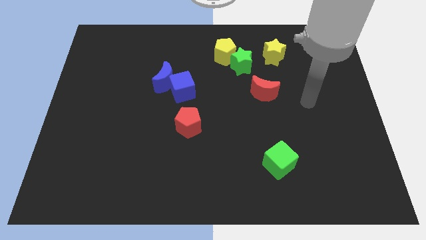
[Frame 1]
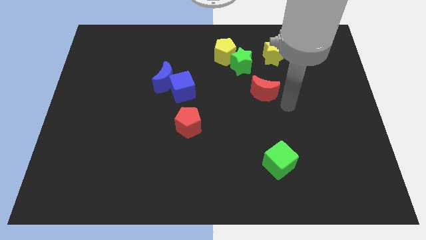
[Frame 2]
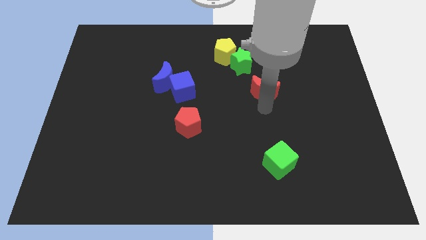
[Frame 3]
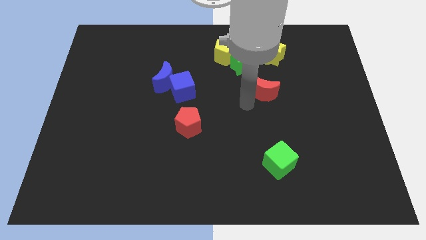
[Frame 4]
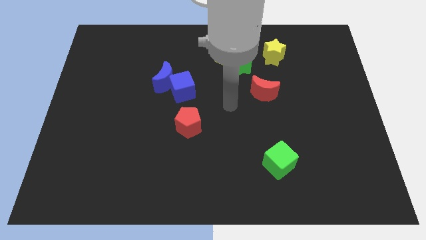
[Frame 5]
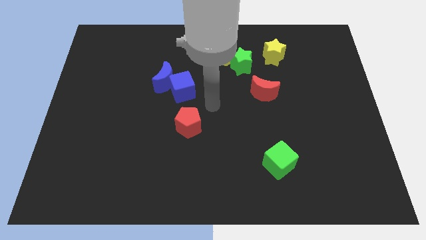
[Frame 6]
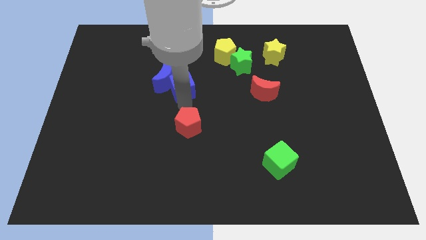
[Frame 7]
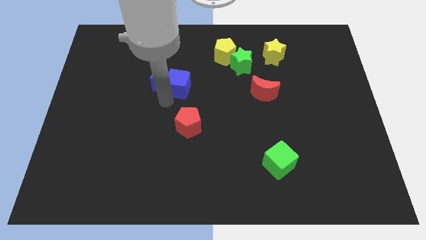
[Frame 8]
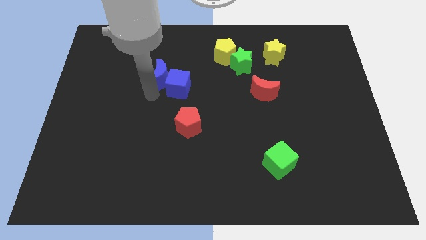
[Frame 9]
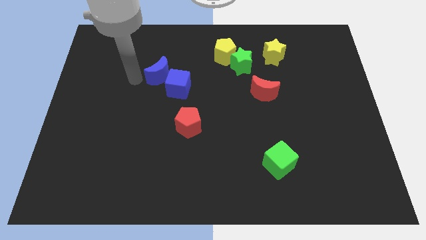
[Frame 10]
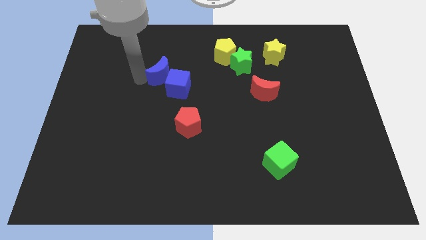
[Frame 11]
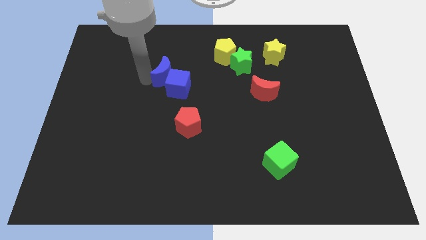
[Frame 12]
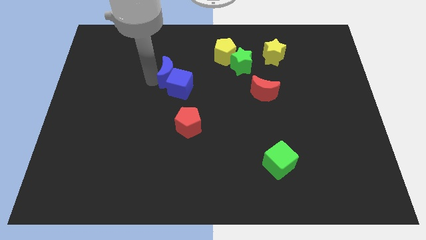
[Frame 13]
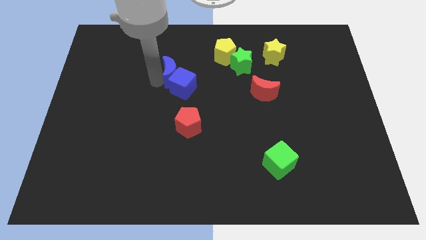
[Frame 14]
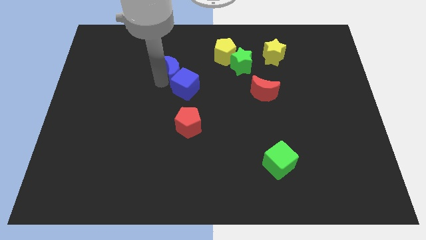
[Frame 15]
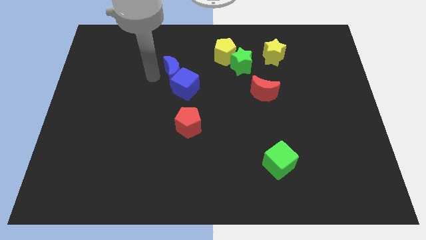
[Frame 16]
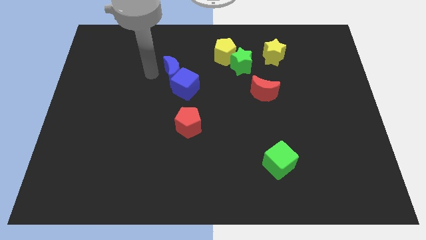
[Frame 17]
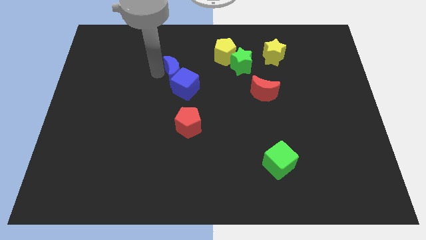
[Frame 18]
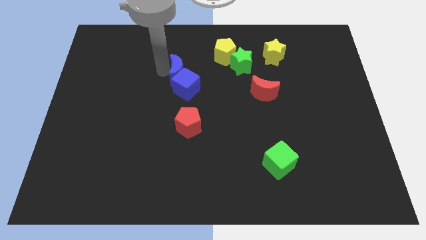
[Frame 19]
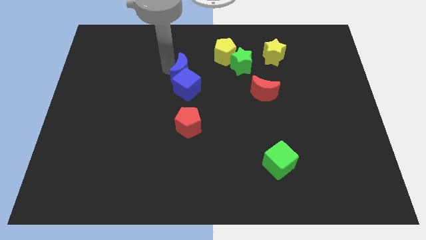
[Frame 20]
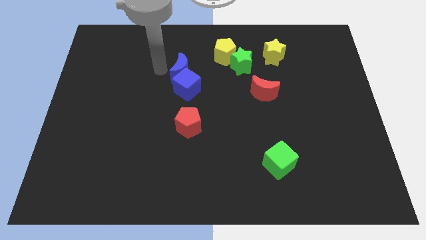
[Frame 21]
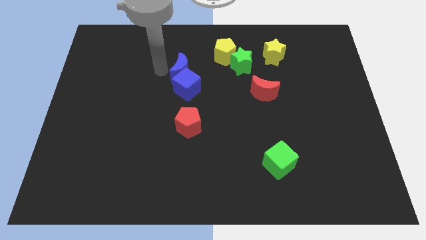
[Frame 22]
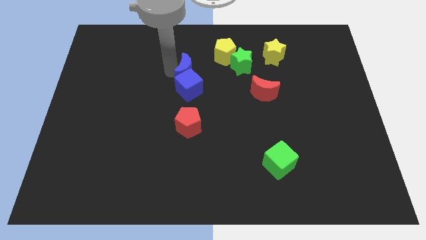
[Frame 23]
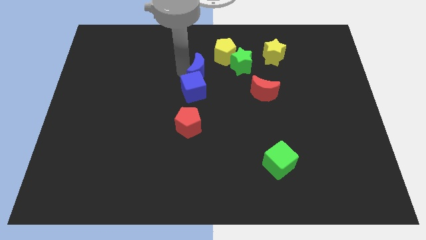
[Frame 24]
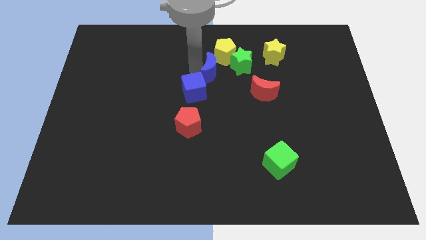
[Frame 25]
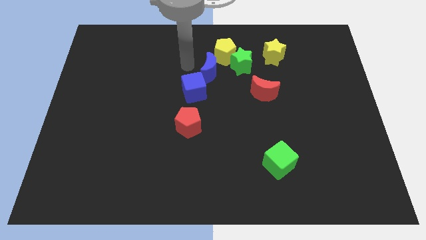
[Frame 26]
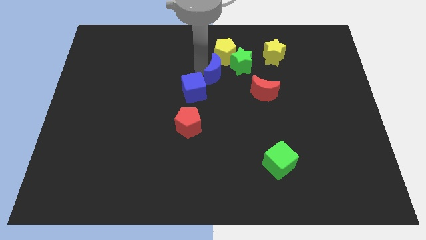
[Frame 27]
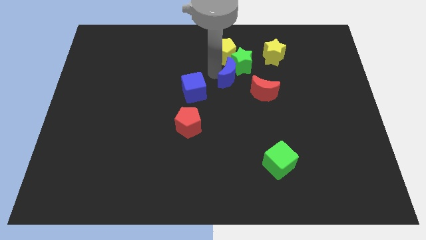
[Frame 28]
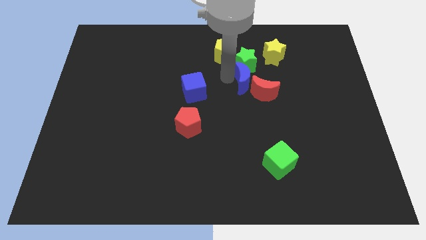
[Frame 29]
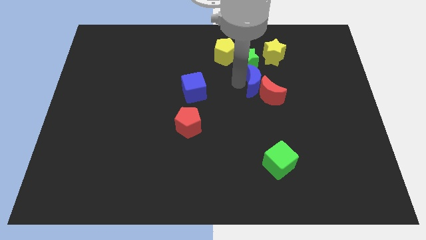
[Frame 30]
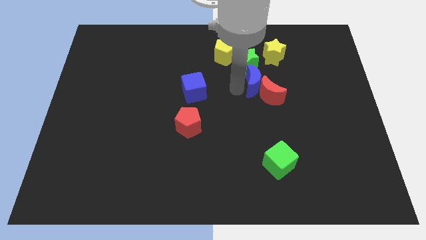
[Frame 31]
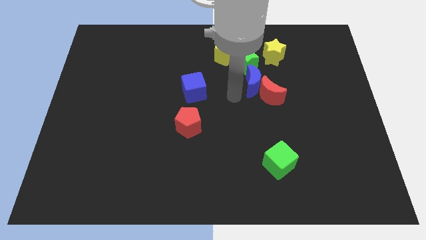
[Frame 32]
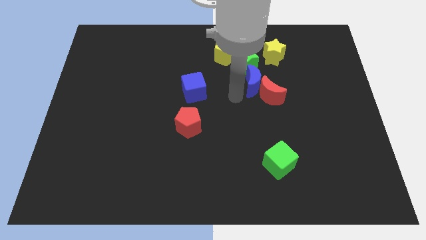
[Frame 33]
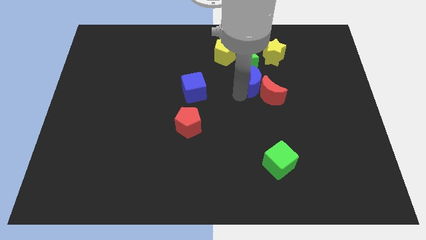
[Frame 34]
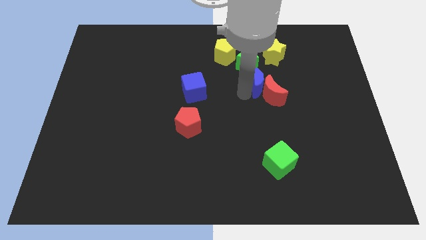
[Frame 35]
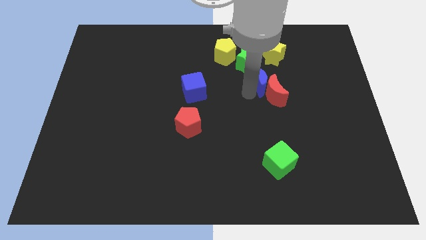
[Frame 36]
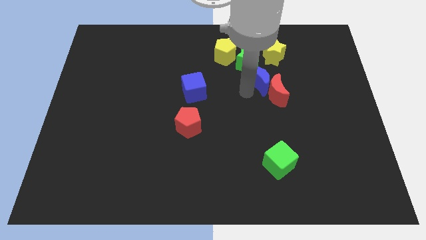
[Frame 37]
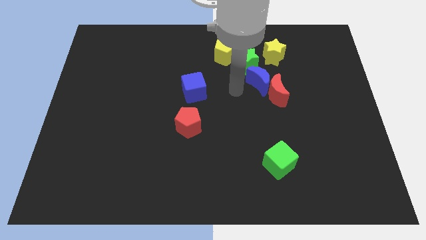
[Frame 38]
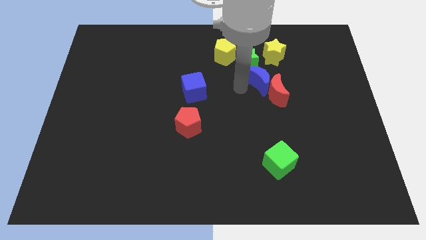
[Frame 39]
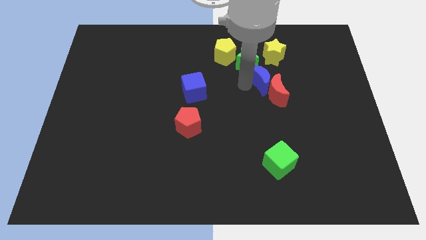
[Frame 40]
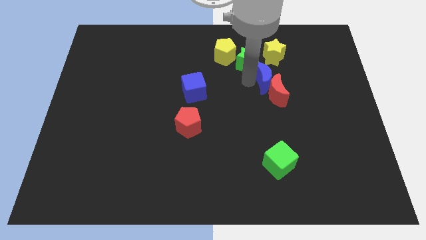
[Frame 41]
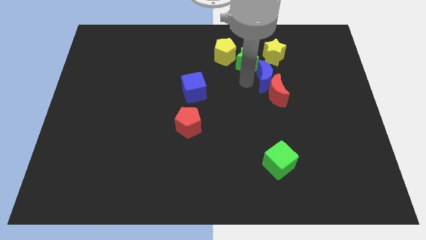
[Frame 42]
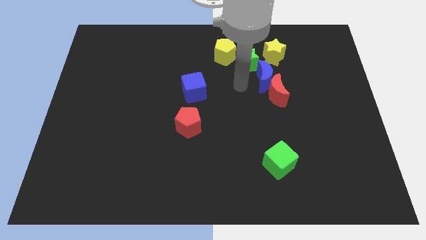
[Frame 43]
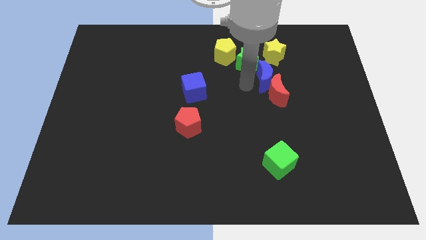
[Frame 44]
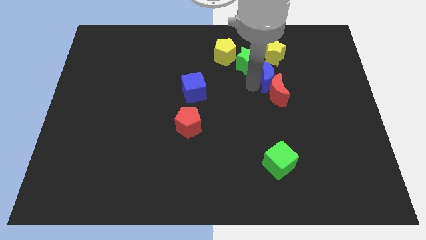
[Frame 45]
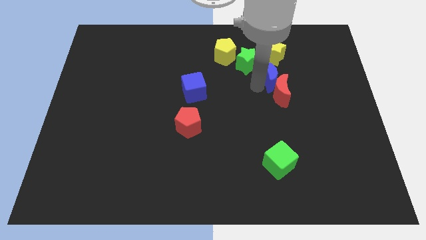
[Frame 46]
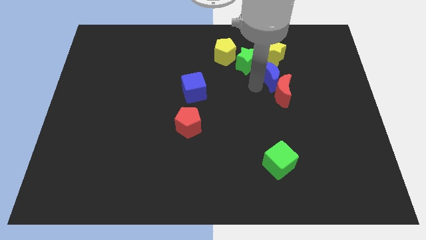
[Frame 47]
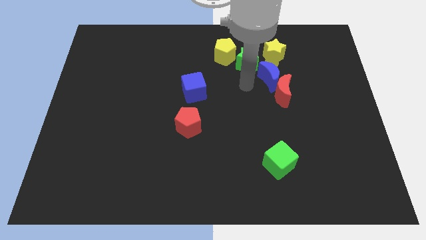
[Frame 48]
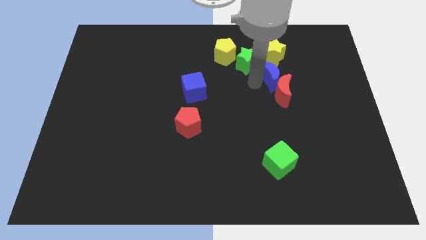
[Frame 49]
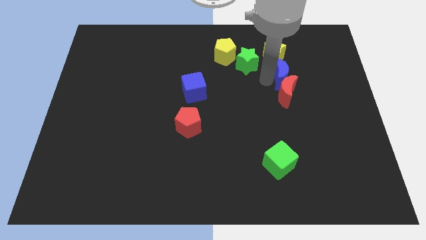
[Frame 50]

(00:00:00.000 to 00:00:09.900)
move the blue moon to the bottom right of the yellow star

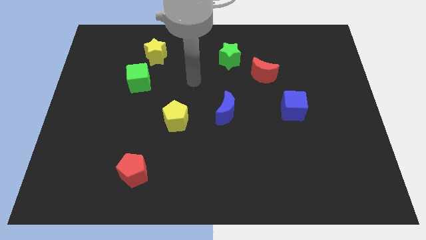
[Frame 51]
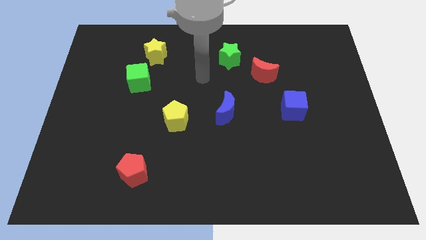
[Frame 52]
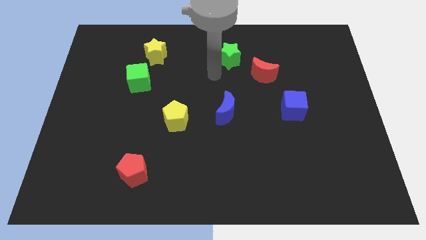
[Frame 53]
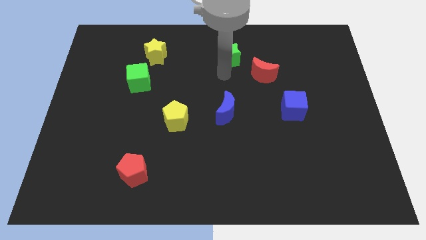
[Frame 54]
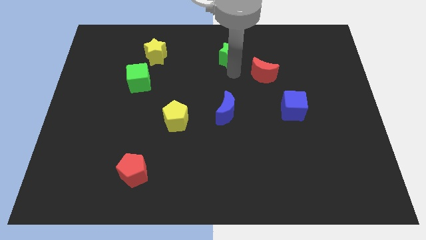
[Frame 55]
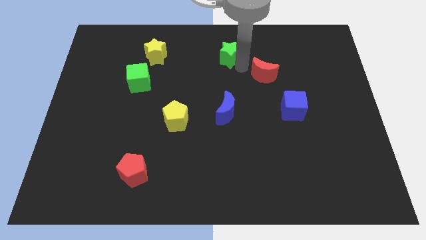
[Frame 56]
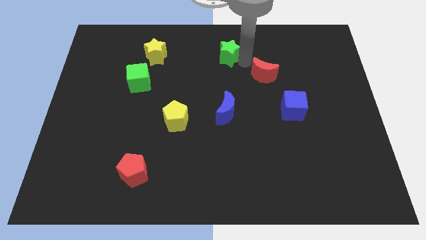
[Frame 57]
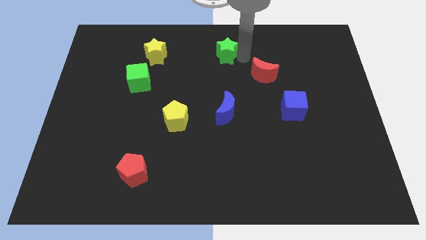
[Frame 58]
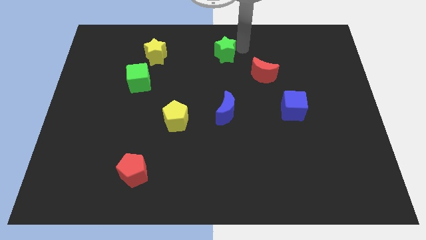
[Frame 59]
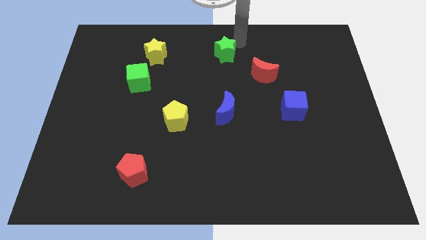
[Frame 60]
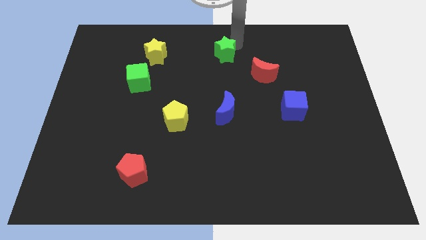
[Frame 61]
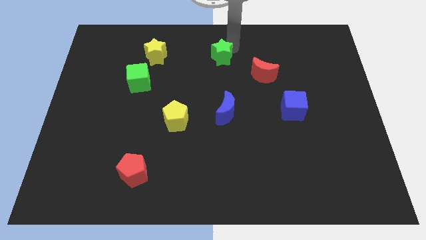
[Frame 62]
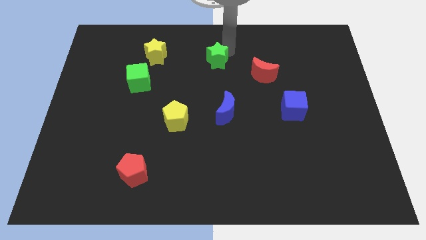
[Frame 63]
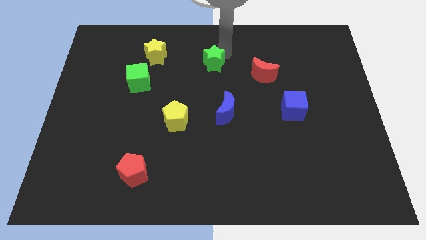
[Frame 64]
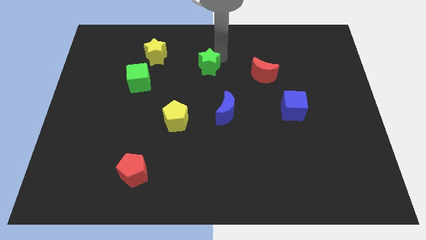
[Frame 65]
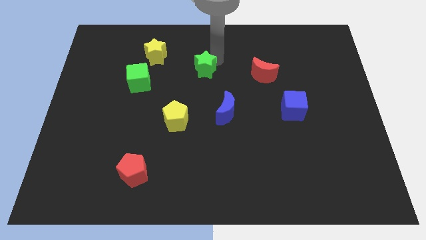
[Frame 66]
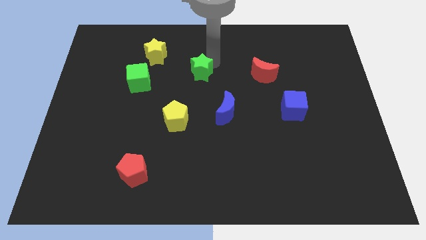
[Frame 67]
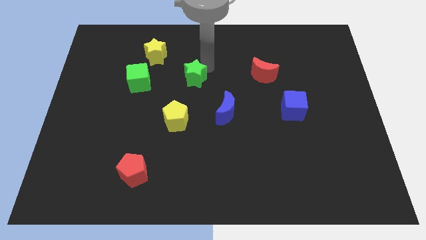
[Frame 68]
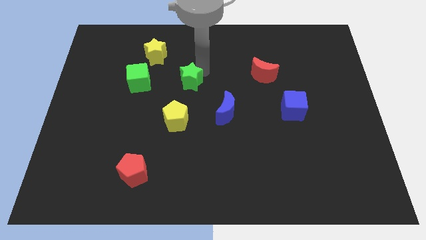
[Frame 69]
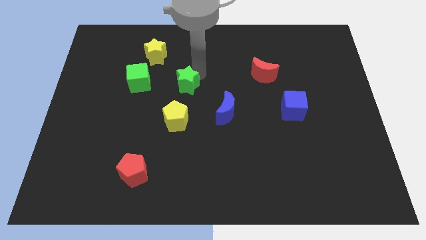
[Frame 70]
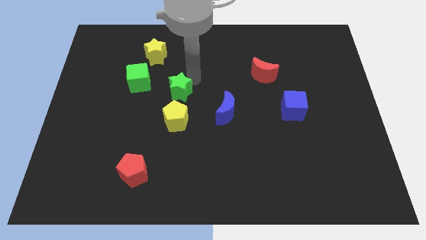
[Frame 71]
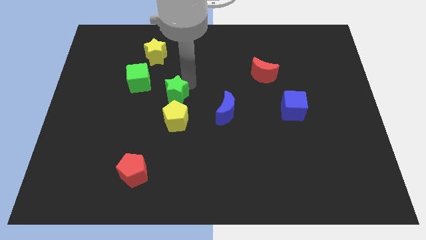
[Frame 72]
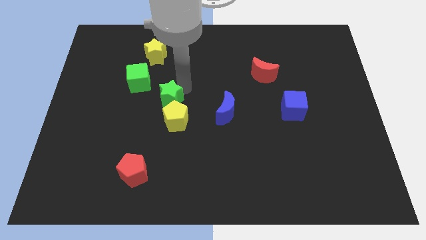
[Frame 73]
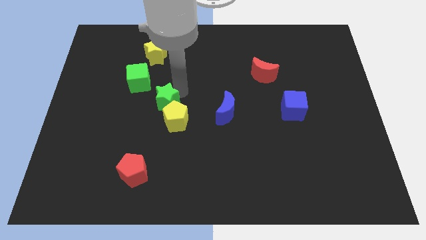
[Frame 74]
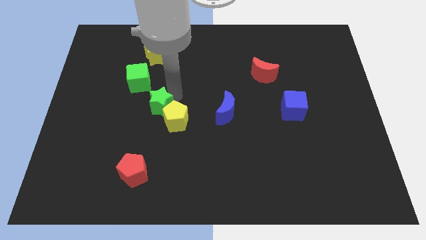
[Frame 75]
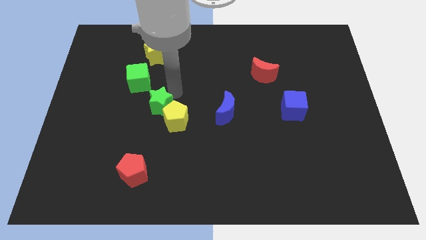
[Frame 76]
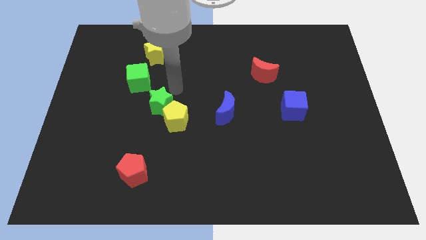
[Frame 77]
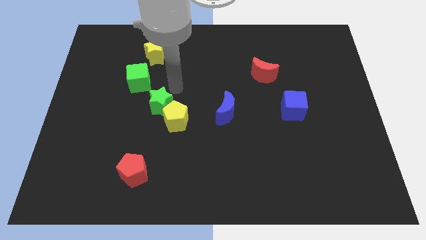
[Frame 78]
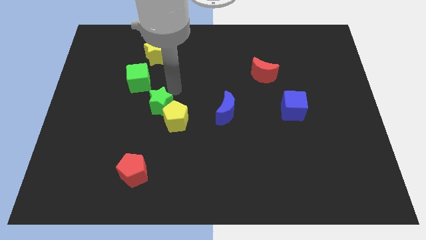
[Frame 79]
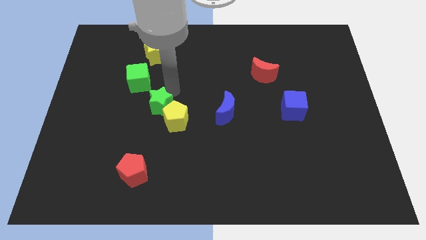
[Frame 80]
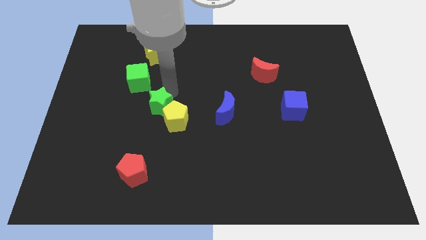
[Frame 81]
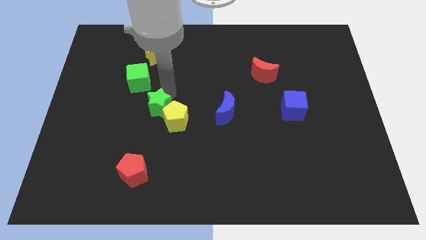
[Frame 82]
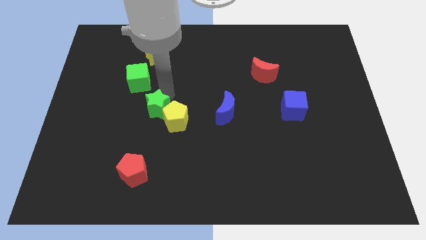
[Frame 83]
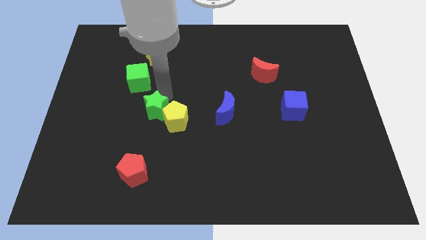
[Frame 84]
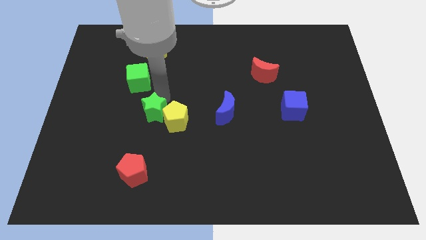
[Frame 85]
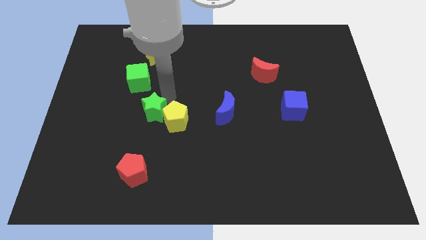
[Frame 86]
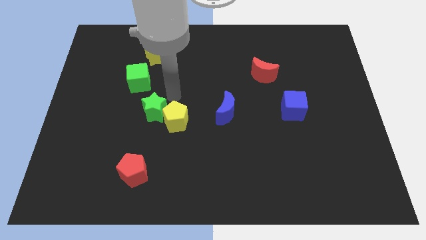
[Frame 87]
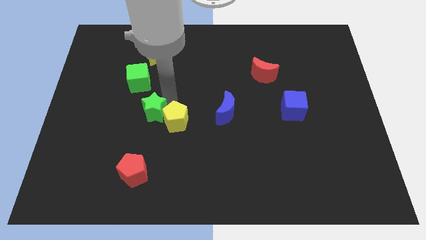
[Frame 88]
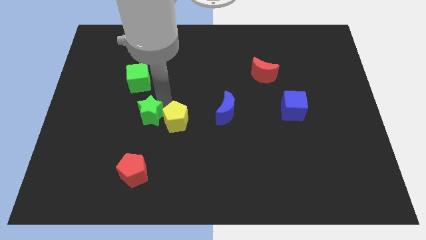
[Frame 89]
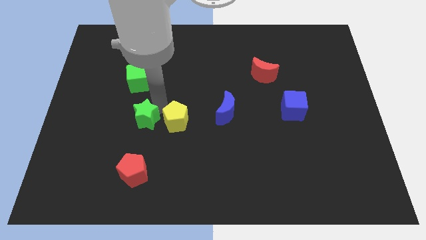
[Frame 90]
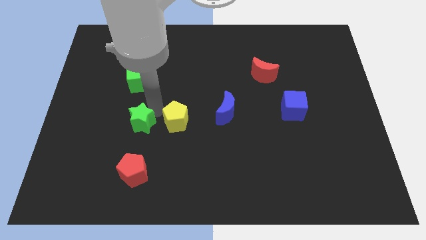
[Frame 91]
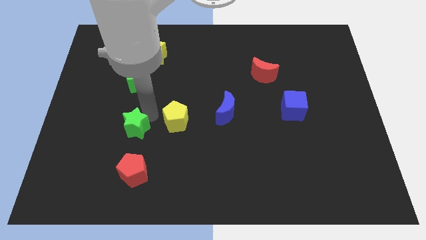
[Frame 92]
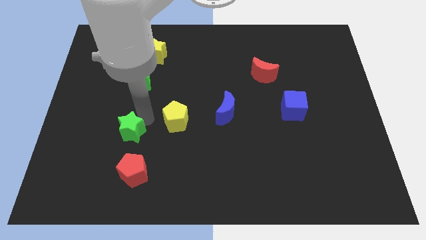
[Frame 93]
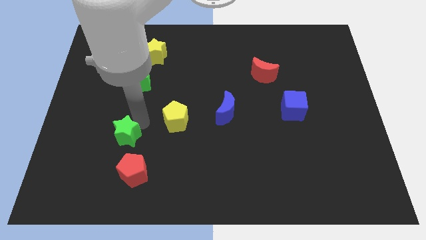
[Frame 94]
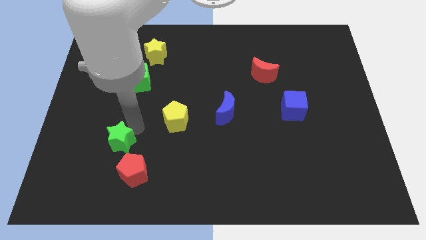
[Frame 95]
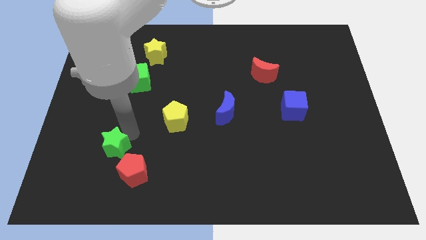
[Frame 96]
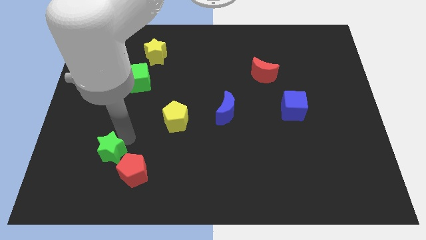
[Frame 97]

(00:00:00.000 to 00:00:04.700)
push the green star to the left of the red pentagon
